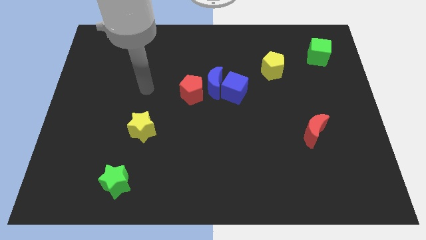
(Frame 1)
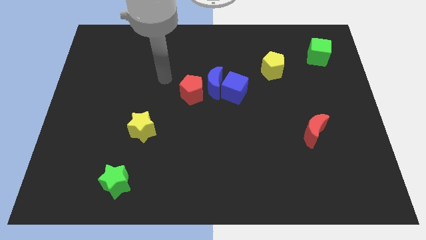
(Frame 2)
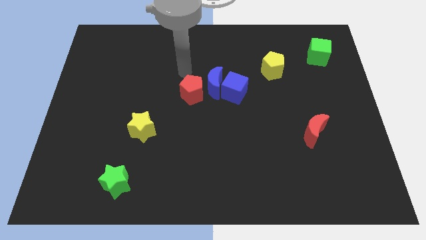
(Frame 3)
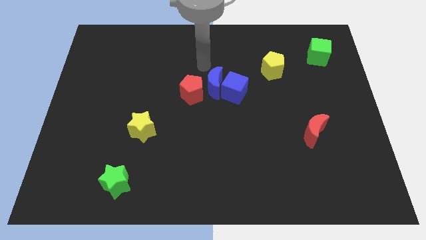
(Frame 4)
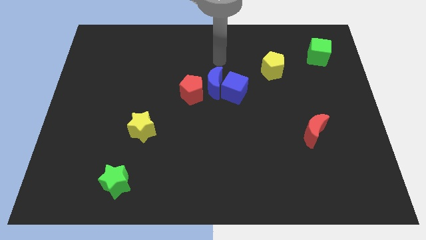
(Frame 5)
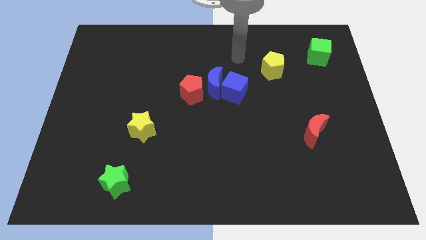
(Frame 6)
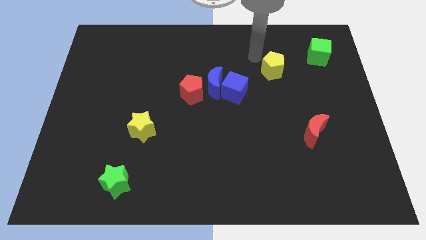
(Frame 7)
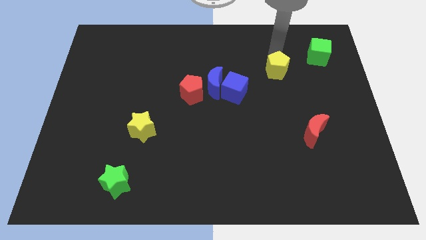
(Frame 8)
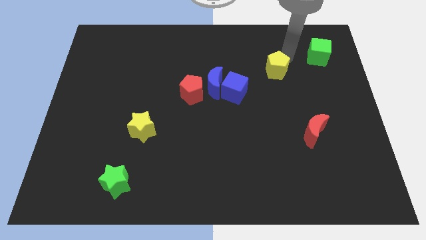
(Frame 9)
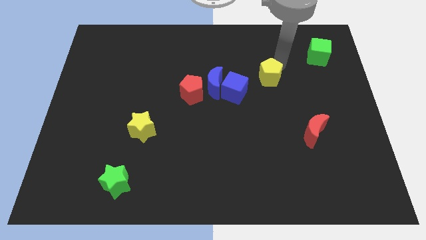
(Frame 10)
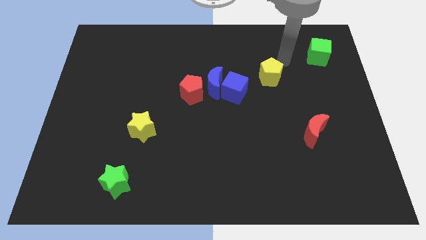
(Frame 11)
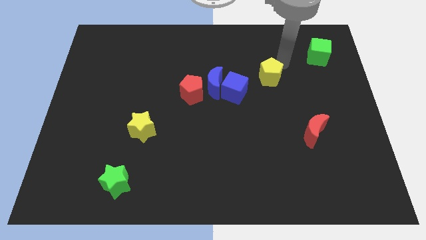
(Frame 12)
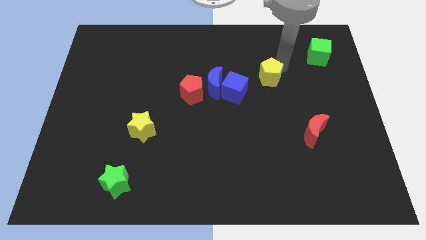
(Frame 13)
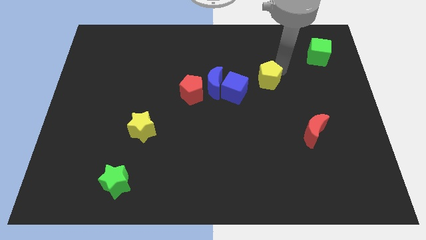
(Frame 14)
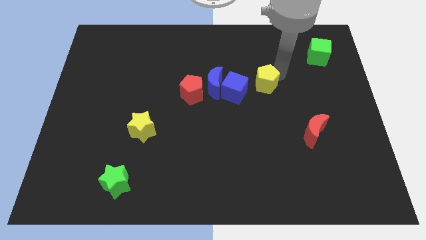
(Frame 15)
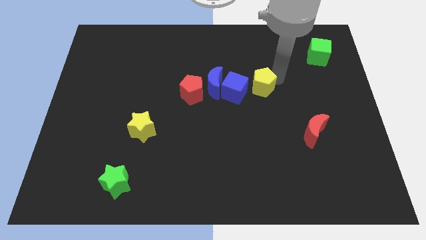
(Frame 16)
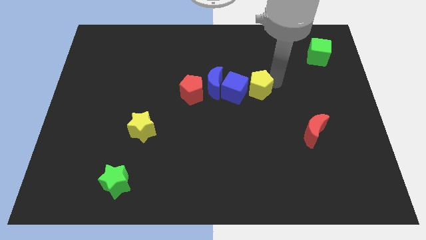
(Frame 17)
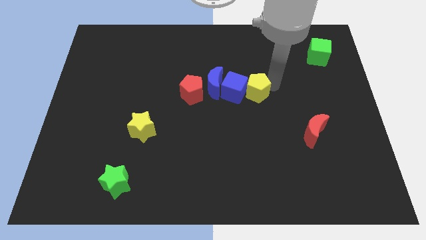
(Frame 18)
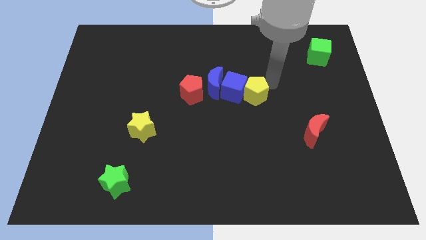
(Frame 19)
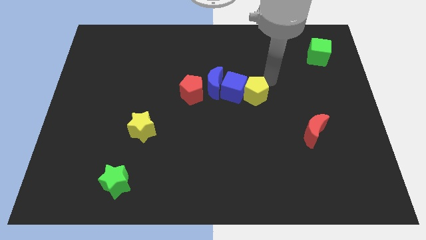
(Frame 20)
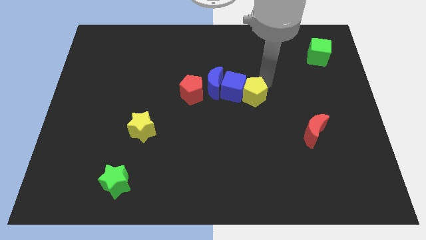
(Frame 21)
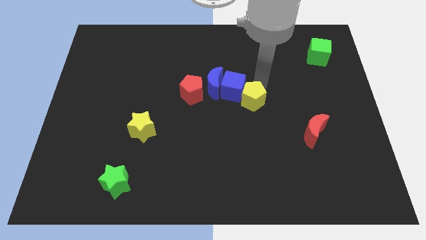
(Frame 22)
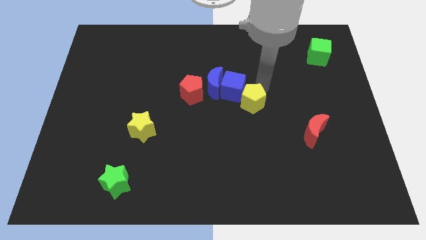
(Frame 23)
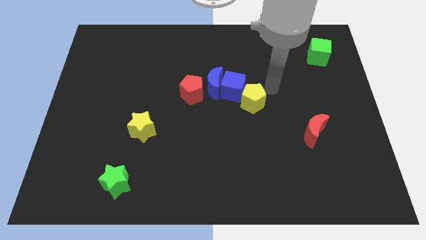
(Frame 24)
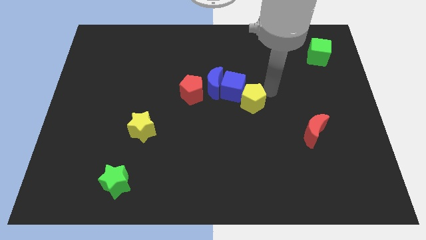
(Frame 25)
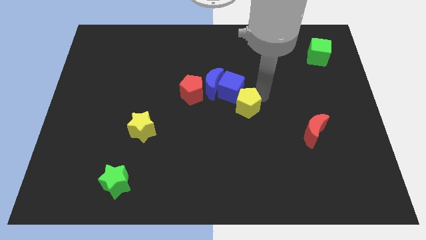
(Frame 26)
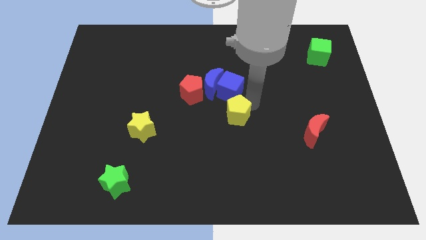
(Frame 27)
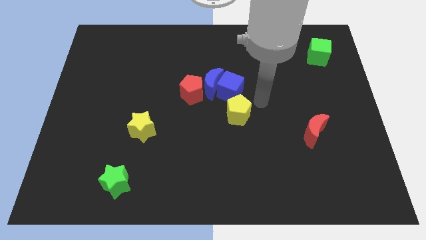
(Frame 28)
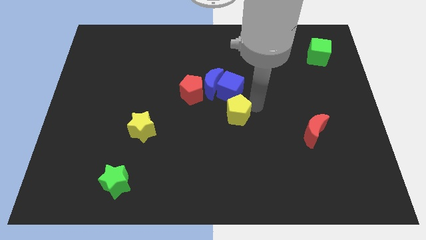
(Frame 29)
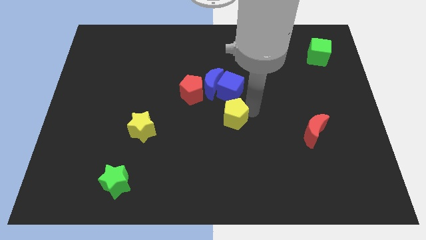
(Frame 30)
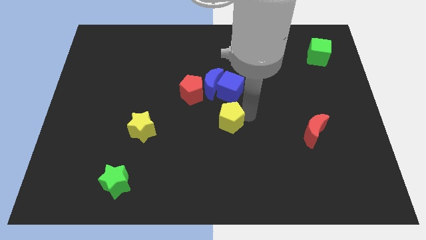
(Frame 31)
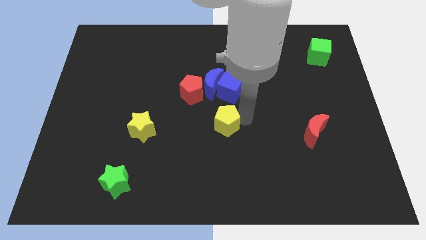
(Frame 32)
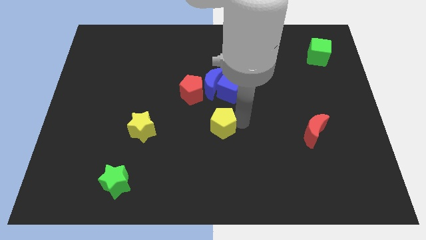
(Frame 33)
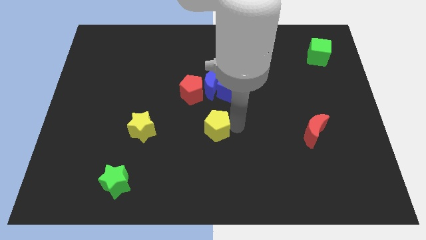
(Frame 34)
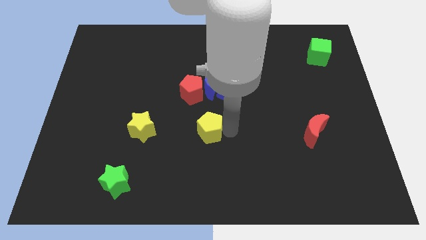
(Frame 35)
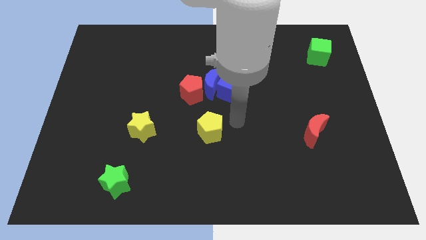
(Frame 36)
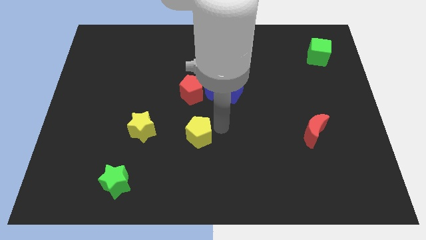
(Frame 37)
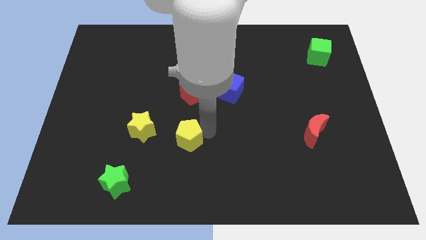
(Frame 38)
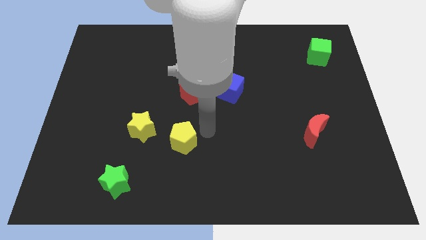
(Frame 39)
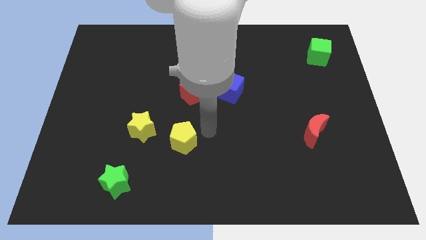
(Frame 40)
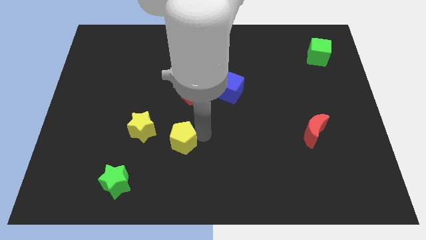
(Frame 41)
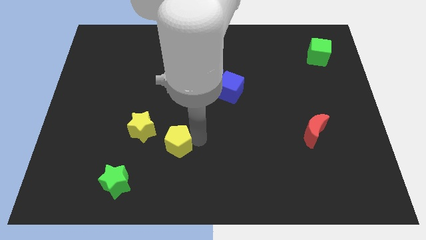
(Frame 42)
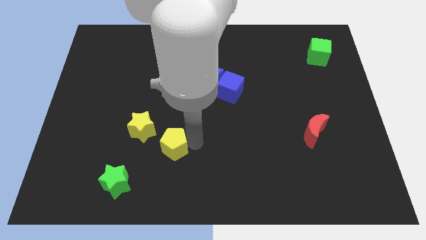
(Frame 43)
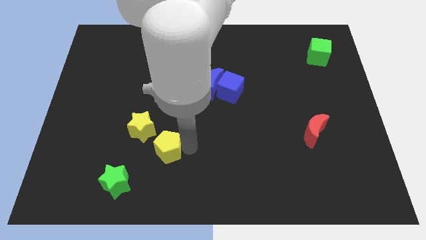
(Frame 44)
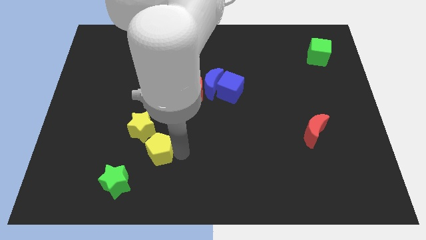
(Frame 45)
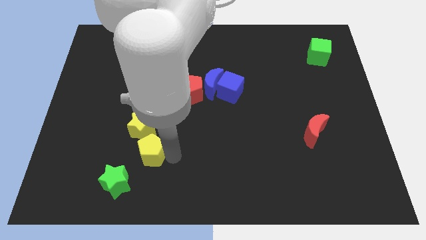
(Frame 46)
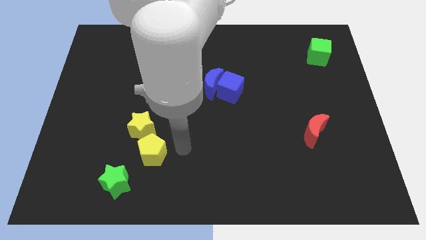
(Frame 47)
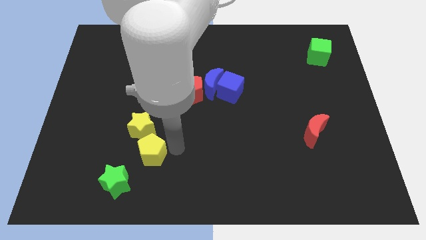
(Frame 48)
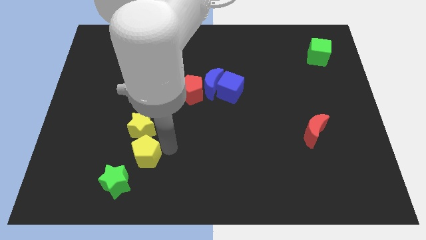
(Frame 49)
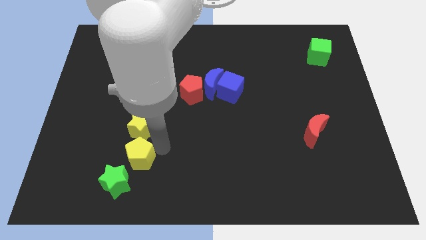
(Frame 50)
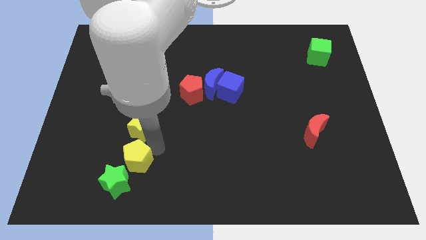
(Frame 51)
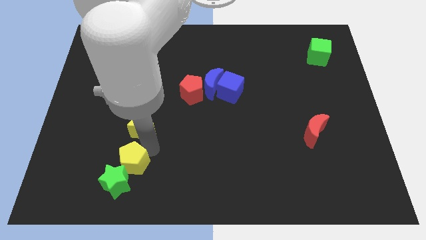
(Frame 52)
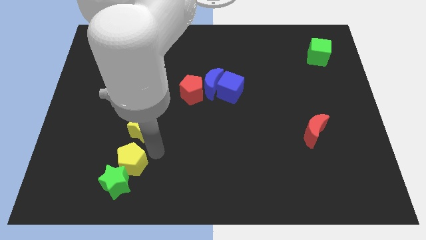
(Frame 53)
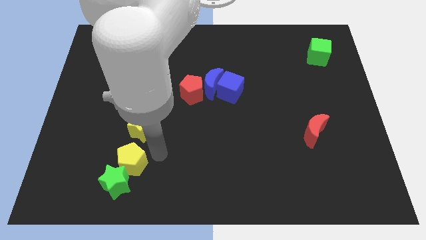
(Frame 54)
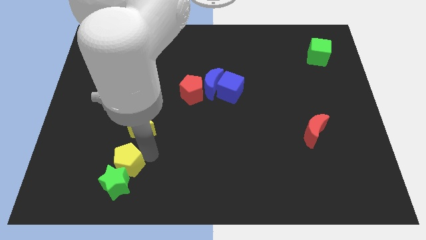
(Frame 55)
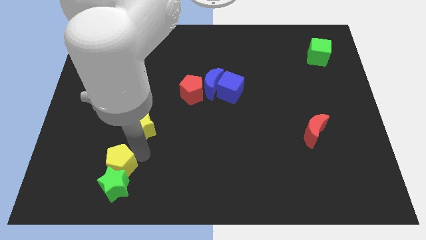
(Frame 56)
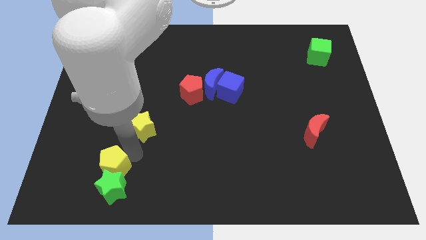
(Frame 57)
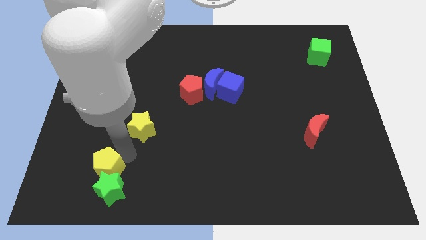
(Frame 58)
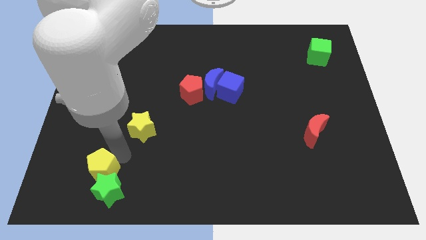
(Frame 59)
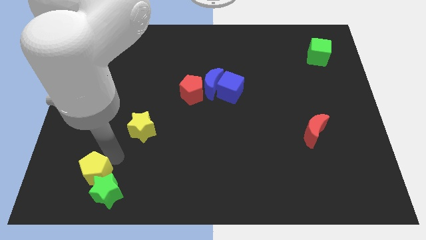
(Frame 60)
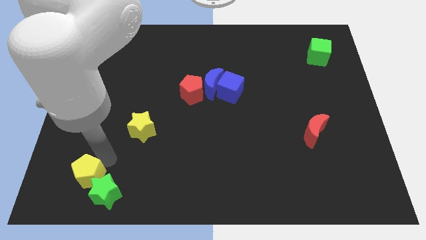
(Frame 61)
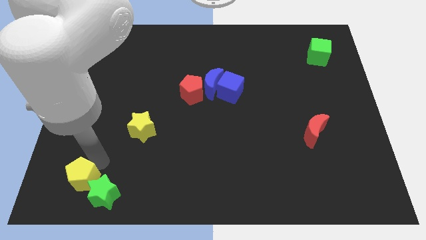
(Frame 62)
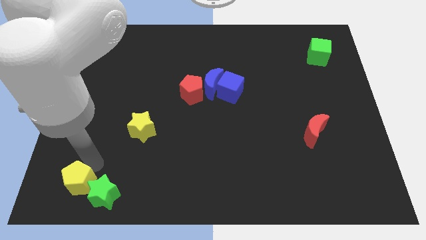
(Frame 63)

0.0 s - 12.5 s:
slide the yellow pentagon to the bottom left of the board

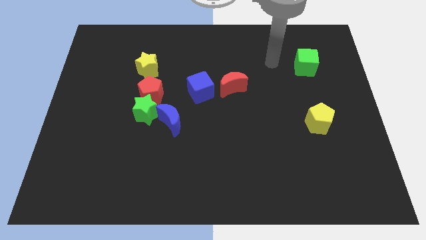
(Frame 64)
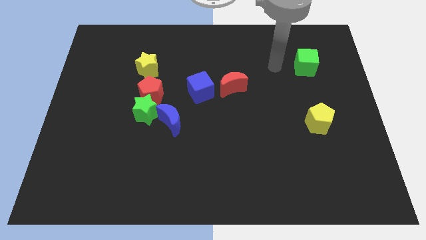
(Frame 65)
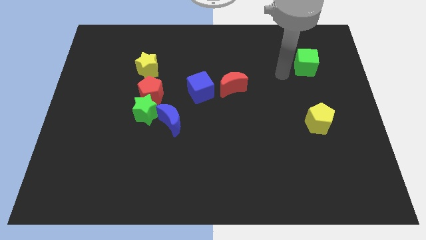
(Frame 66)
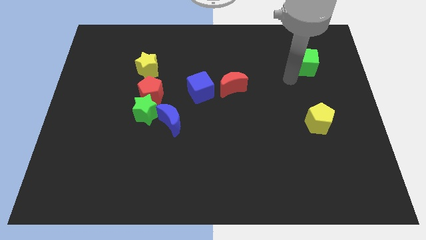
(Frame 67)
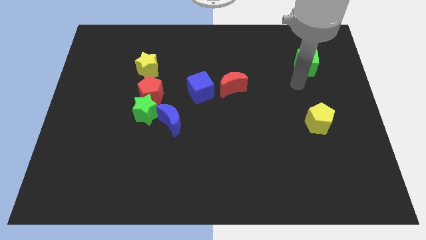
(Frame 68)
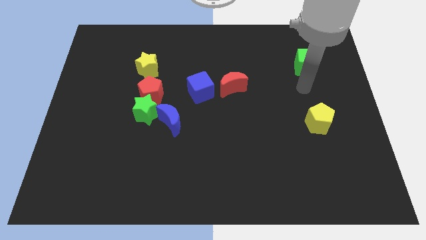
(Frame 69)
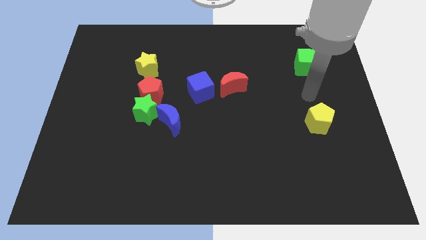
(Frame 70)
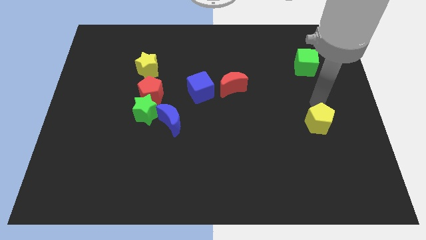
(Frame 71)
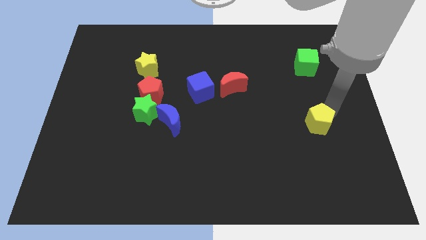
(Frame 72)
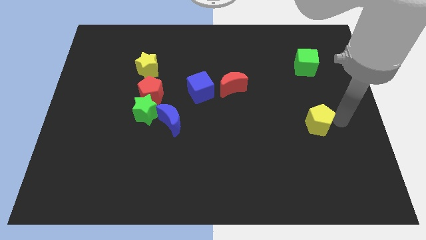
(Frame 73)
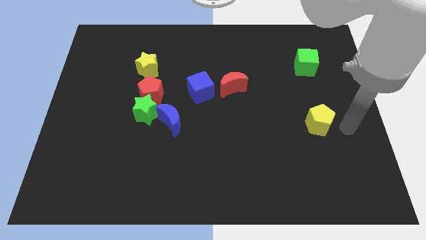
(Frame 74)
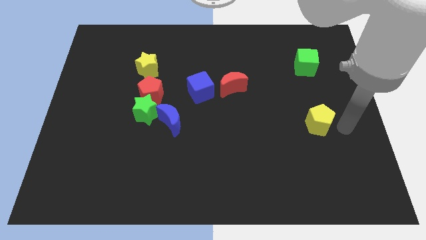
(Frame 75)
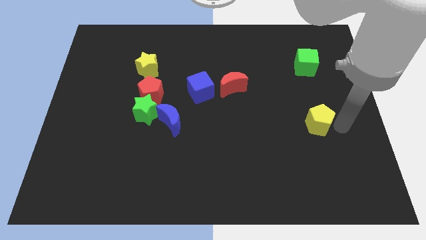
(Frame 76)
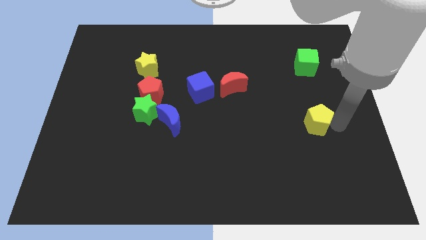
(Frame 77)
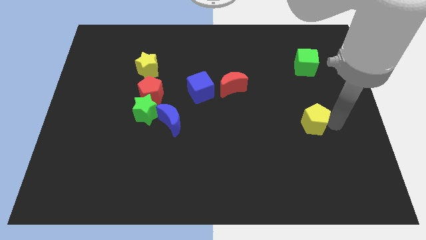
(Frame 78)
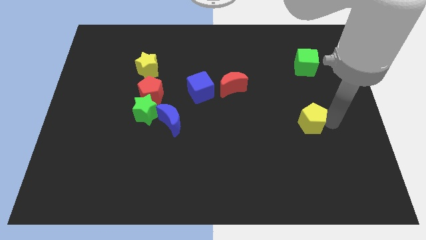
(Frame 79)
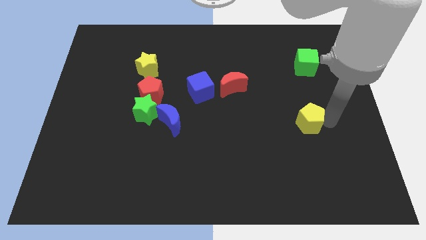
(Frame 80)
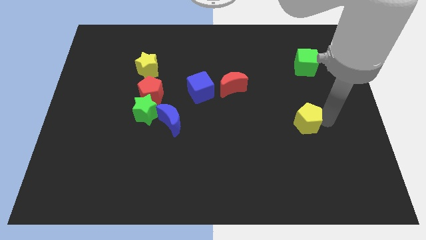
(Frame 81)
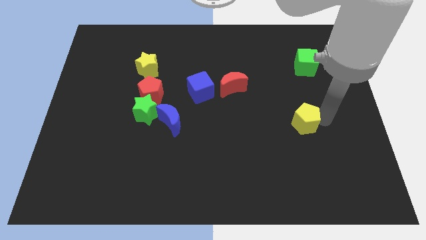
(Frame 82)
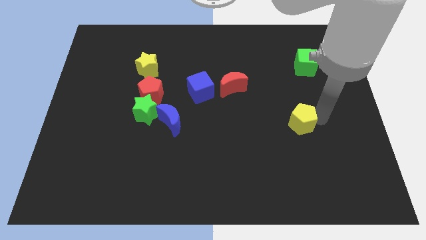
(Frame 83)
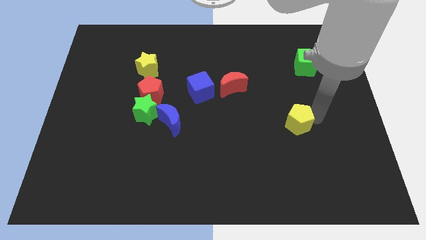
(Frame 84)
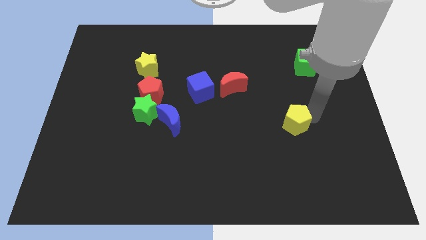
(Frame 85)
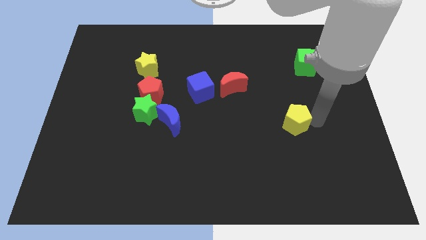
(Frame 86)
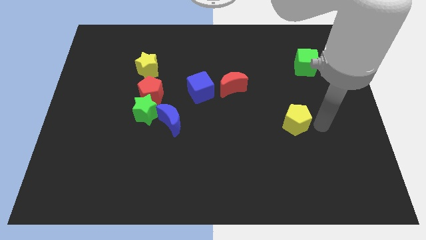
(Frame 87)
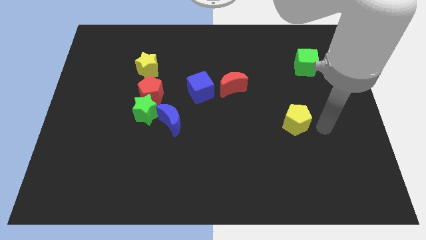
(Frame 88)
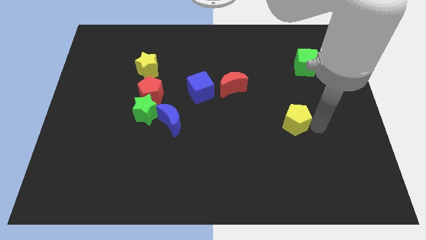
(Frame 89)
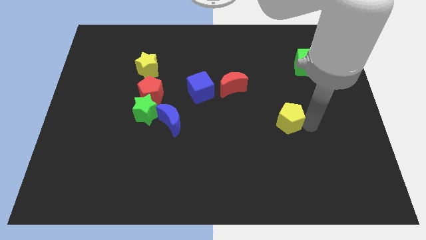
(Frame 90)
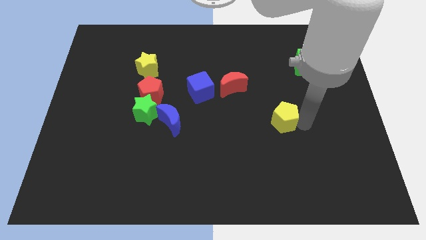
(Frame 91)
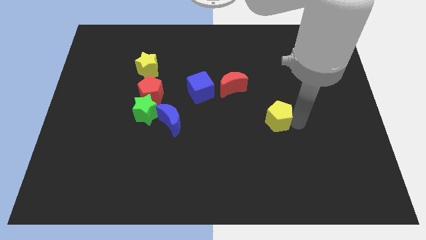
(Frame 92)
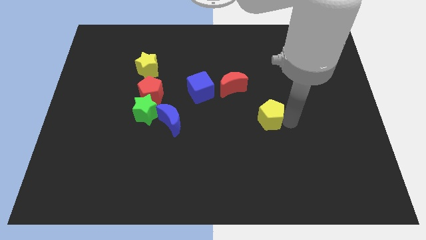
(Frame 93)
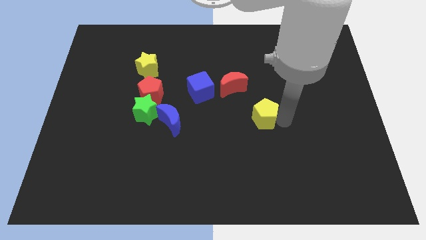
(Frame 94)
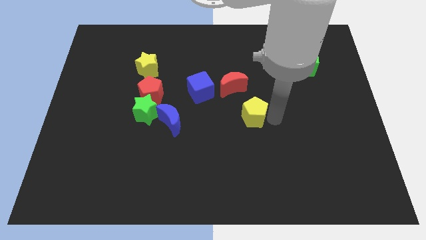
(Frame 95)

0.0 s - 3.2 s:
put the yellow pentagon to the middle
